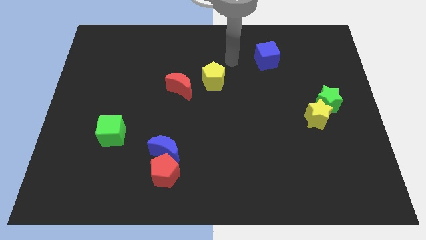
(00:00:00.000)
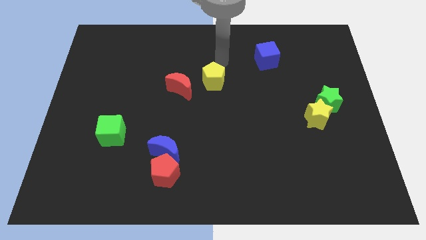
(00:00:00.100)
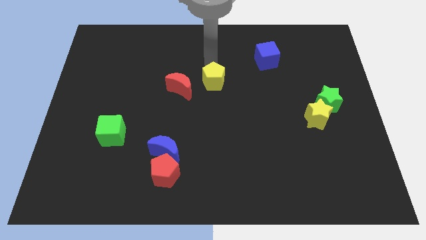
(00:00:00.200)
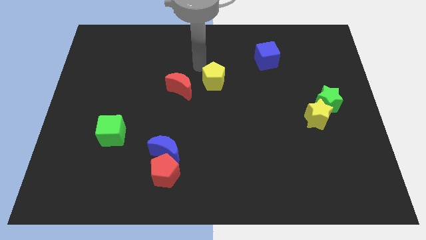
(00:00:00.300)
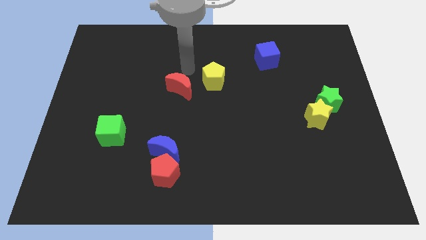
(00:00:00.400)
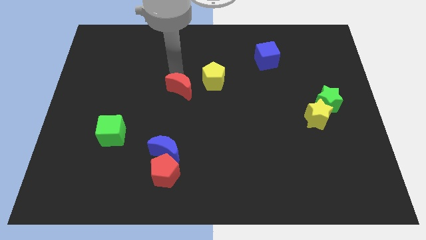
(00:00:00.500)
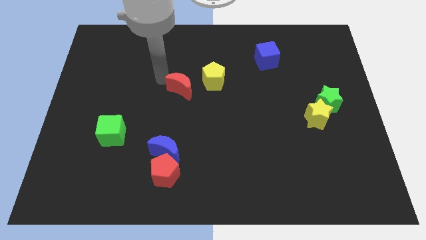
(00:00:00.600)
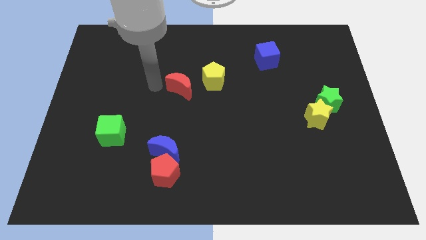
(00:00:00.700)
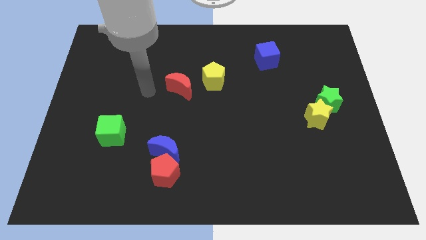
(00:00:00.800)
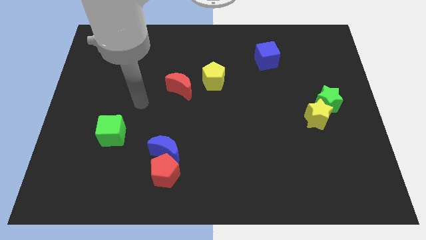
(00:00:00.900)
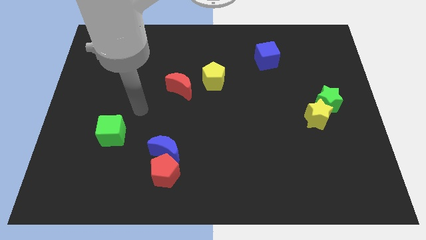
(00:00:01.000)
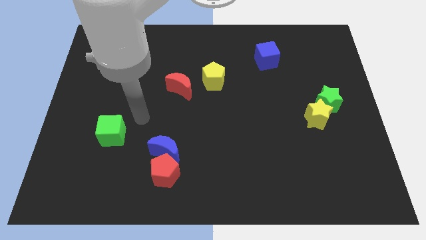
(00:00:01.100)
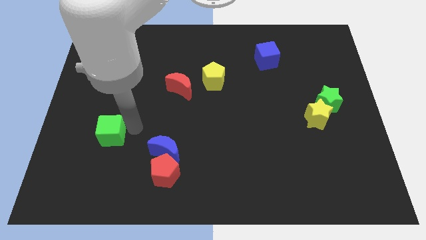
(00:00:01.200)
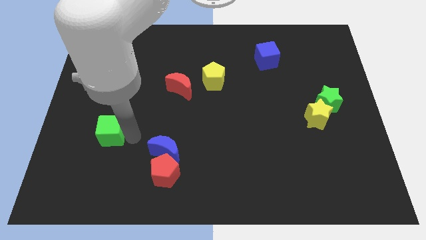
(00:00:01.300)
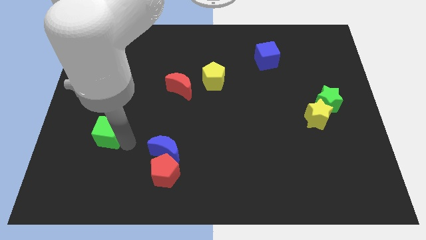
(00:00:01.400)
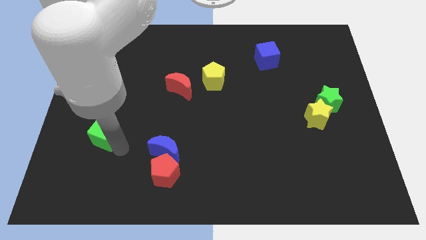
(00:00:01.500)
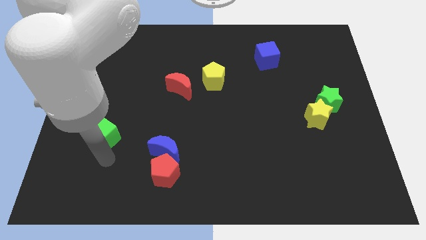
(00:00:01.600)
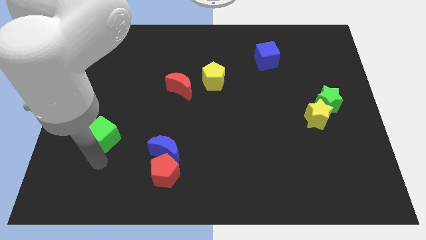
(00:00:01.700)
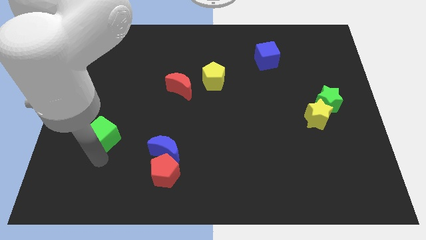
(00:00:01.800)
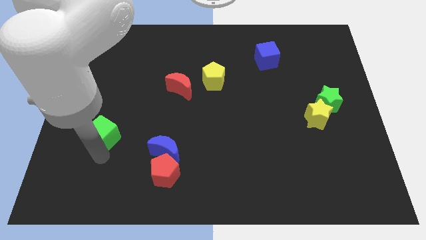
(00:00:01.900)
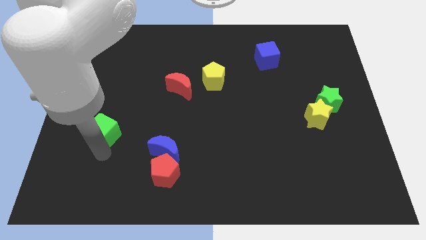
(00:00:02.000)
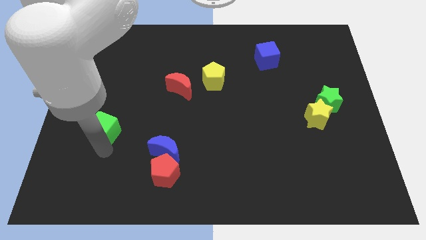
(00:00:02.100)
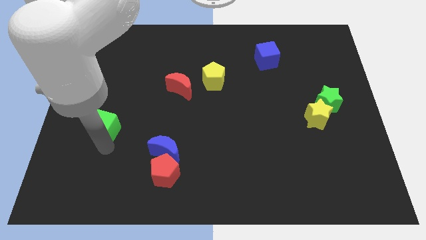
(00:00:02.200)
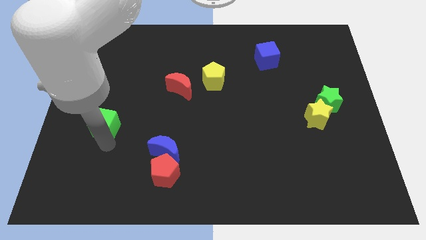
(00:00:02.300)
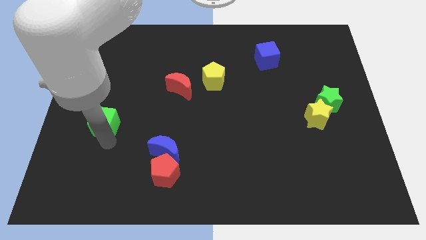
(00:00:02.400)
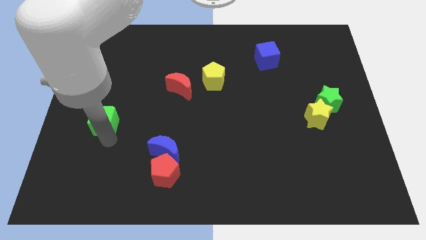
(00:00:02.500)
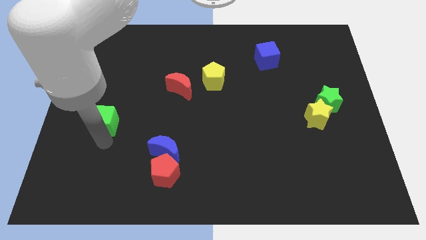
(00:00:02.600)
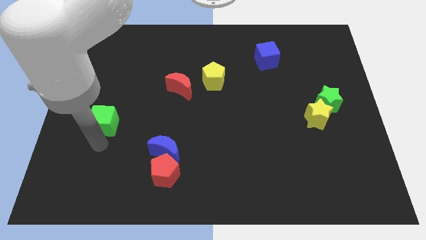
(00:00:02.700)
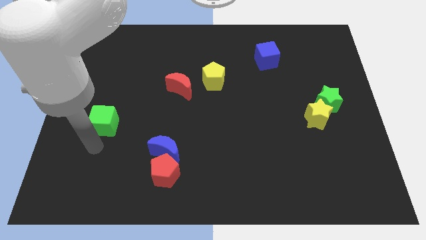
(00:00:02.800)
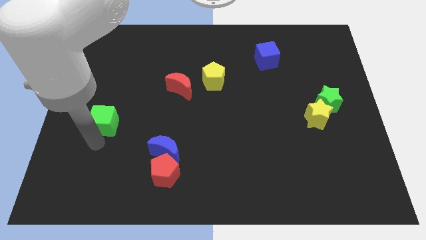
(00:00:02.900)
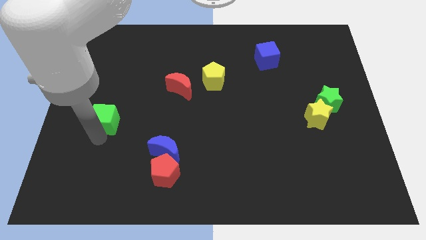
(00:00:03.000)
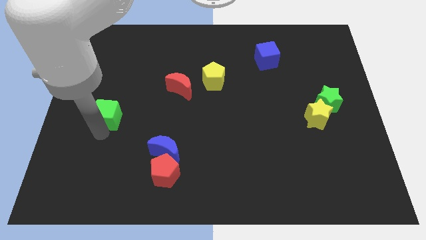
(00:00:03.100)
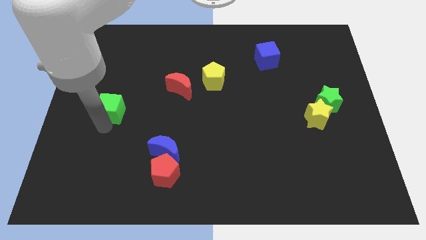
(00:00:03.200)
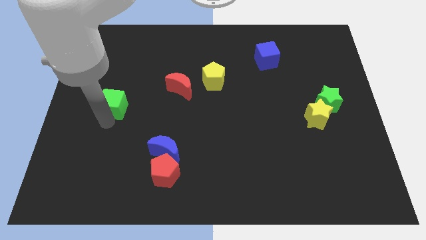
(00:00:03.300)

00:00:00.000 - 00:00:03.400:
slide the green cube a little bit upwards

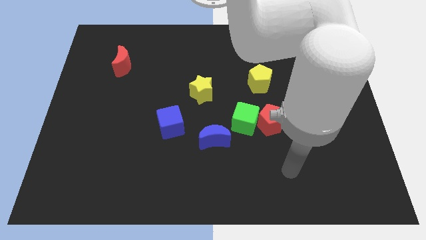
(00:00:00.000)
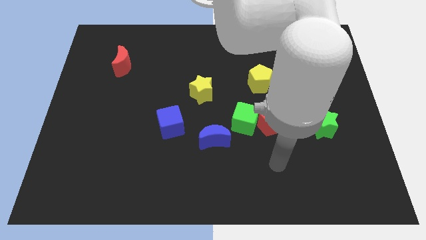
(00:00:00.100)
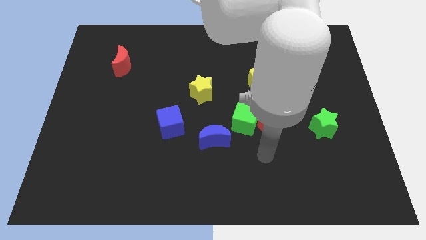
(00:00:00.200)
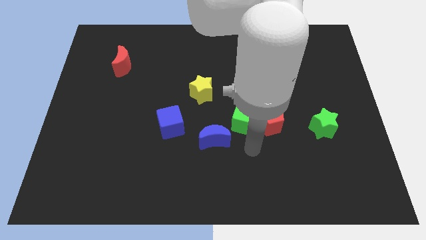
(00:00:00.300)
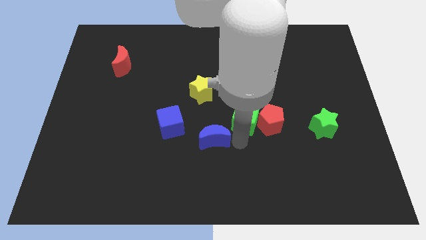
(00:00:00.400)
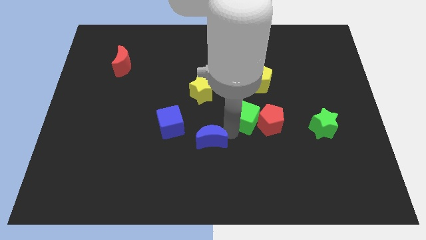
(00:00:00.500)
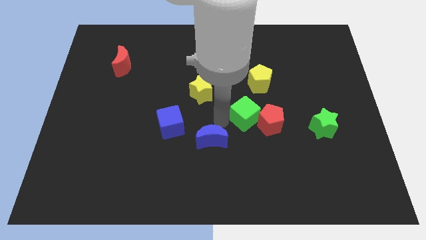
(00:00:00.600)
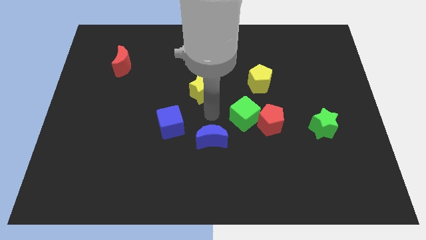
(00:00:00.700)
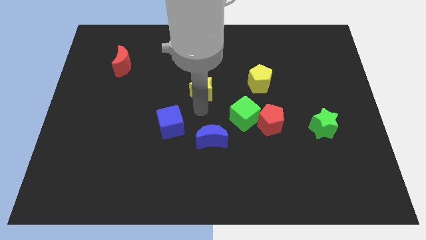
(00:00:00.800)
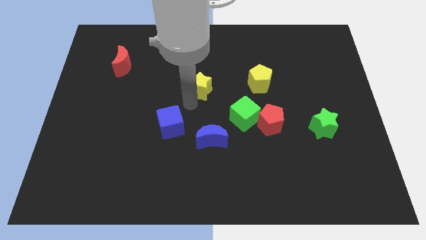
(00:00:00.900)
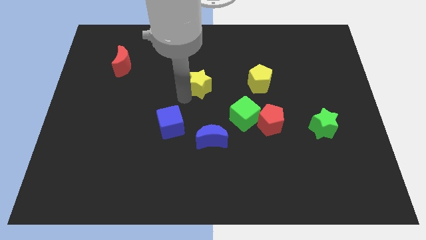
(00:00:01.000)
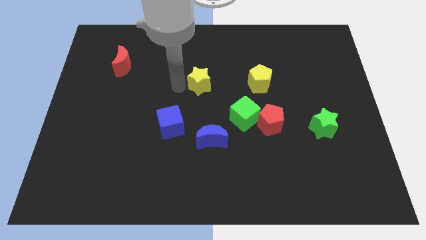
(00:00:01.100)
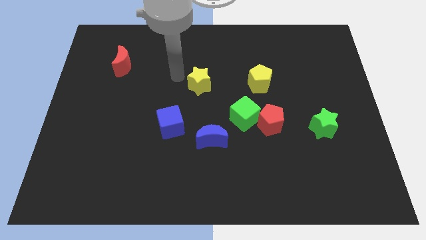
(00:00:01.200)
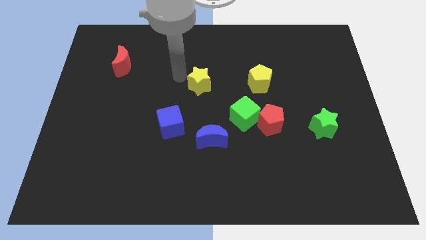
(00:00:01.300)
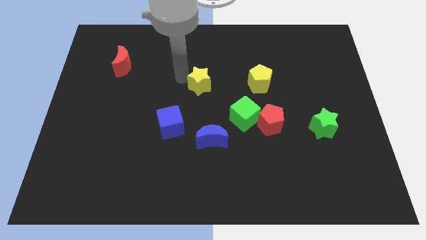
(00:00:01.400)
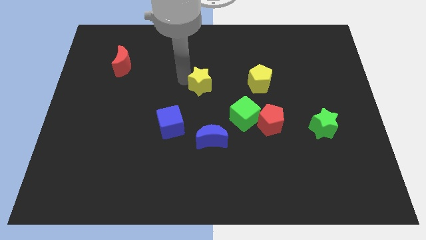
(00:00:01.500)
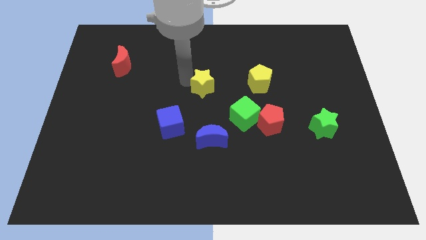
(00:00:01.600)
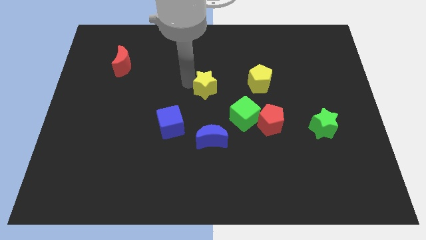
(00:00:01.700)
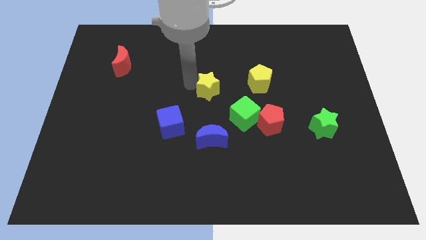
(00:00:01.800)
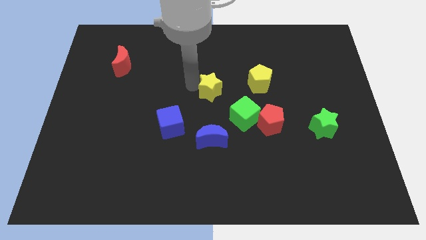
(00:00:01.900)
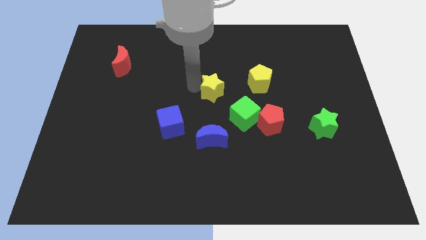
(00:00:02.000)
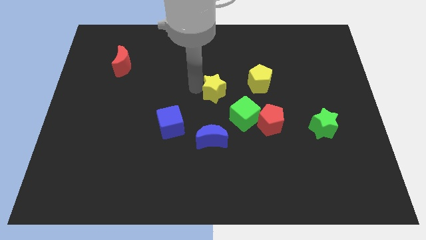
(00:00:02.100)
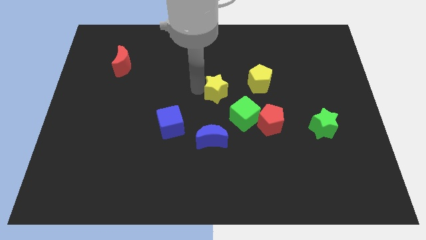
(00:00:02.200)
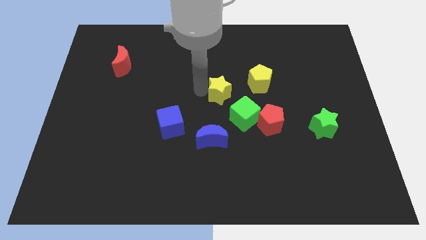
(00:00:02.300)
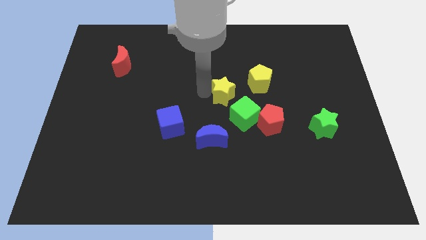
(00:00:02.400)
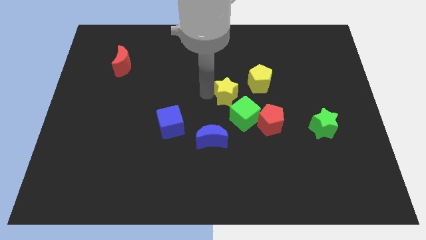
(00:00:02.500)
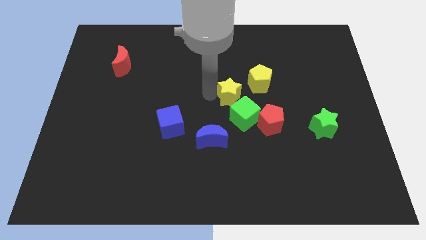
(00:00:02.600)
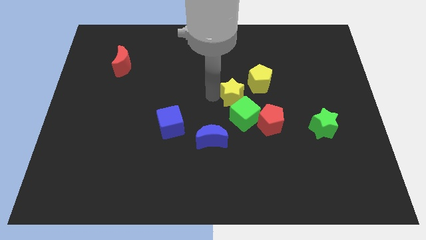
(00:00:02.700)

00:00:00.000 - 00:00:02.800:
slide the yellow star to the right slightly

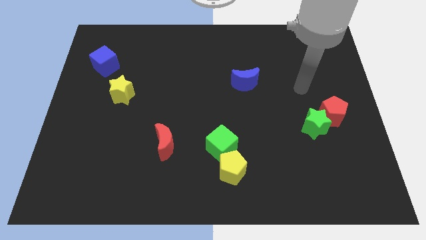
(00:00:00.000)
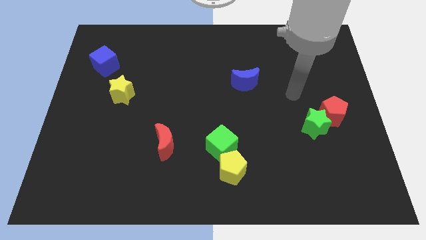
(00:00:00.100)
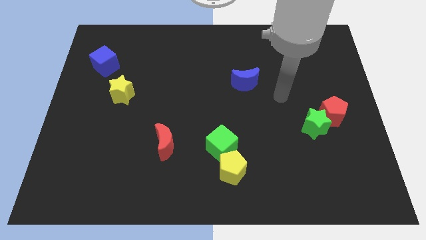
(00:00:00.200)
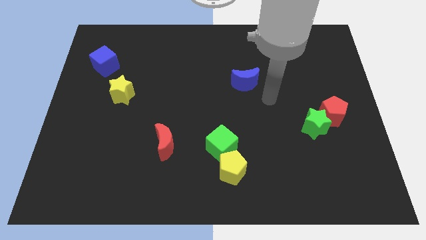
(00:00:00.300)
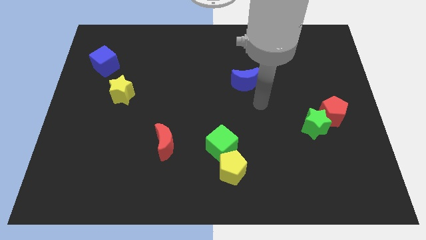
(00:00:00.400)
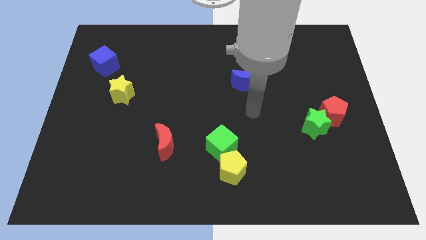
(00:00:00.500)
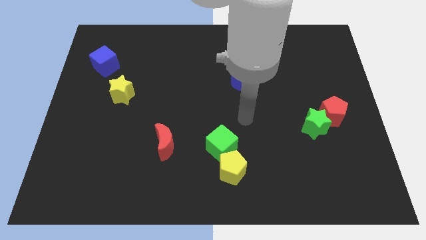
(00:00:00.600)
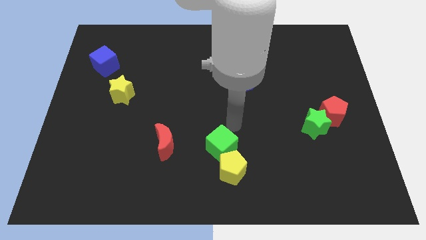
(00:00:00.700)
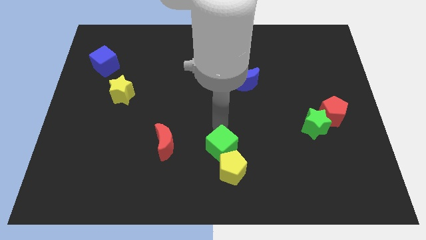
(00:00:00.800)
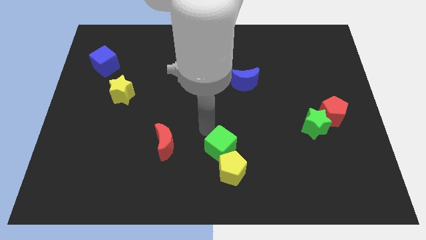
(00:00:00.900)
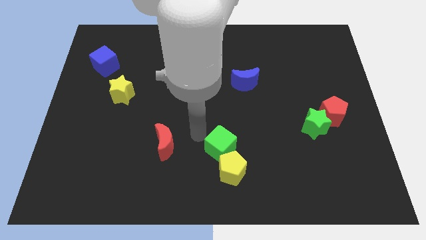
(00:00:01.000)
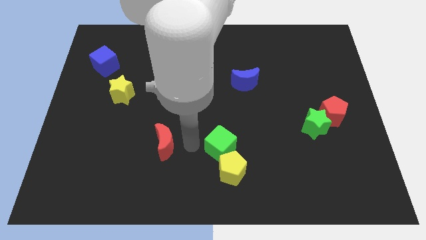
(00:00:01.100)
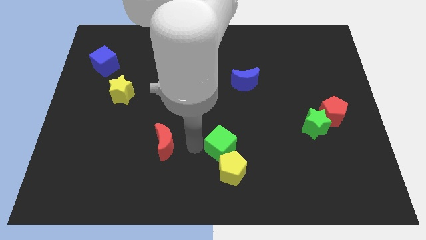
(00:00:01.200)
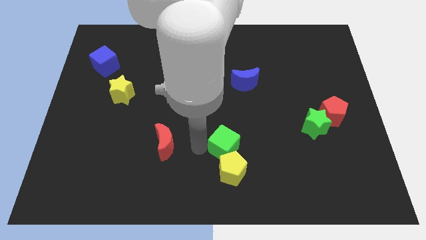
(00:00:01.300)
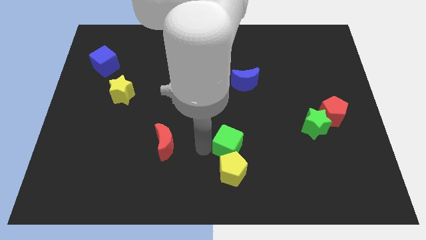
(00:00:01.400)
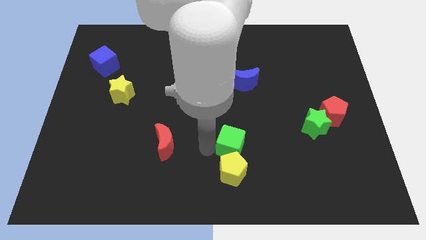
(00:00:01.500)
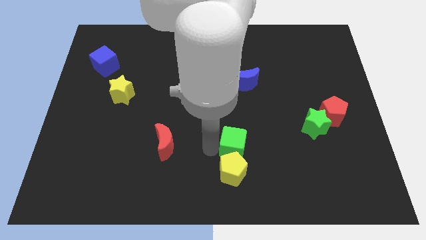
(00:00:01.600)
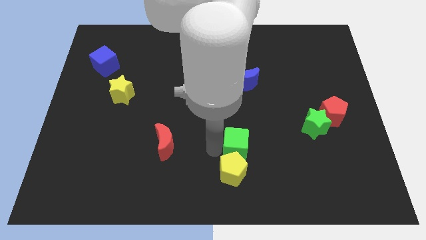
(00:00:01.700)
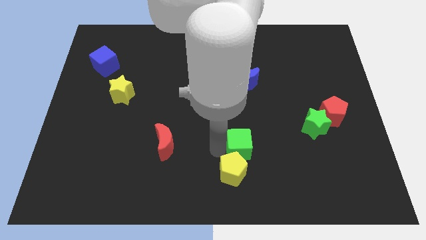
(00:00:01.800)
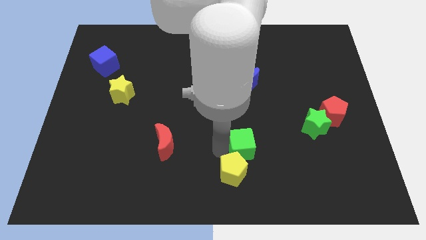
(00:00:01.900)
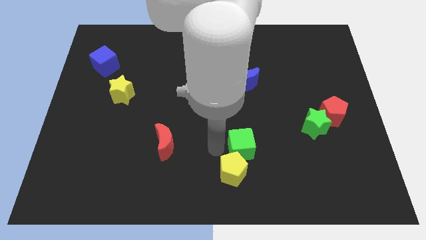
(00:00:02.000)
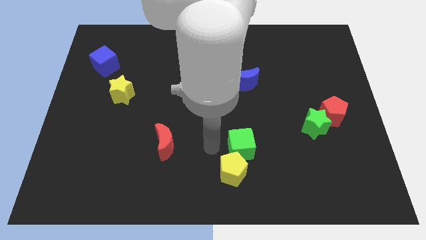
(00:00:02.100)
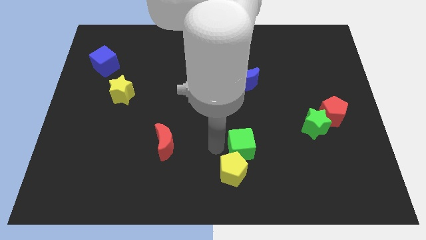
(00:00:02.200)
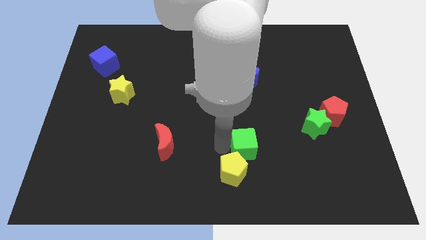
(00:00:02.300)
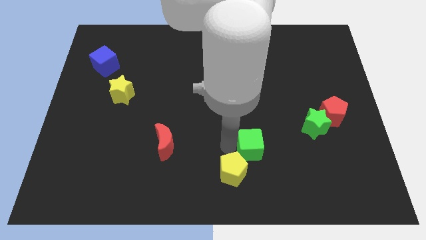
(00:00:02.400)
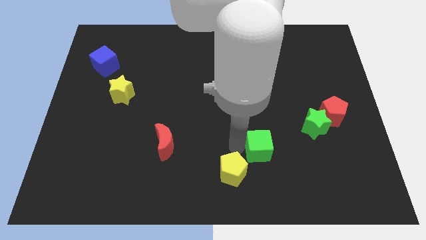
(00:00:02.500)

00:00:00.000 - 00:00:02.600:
slightly push the green cube right
